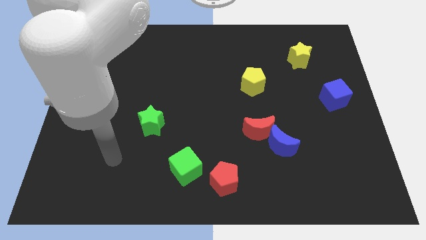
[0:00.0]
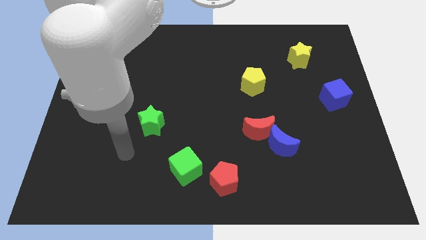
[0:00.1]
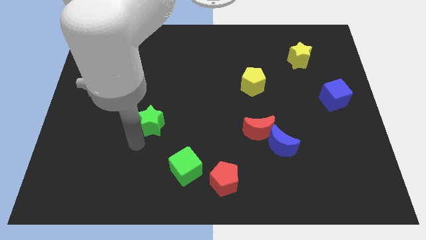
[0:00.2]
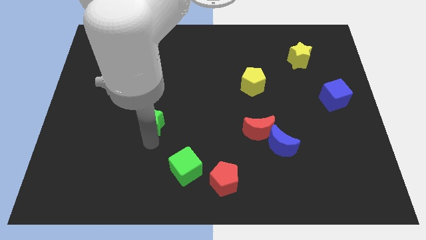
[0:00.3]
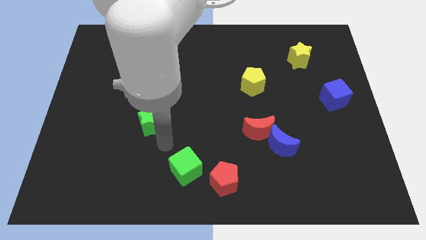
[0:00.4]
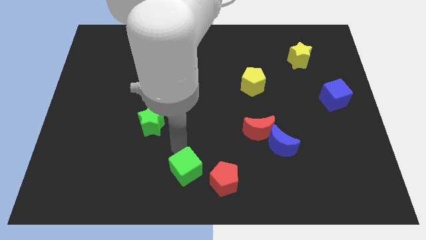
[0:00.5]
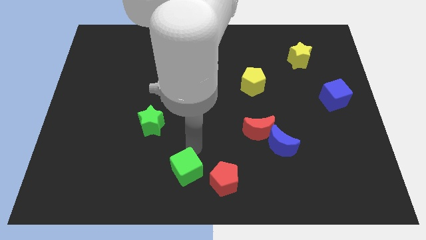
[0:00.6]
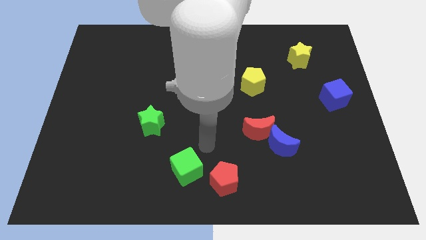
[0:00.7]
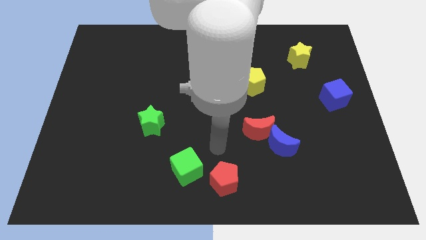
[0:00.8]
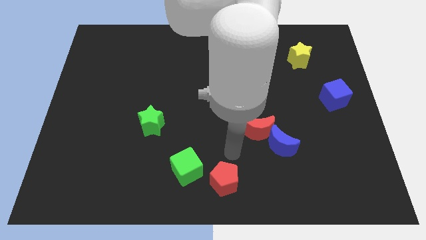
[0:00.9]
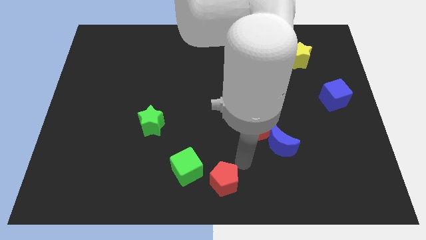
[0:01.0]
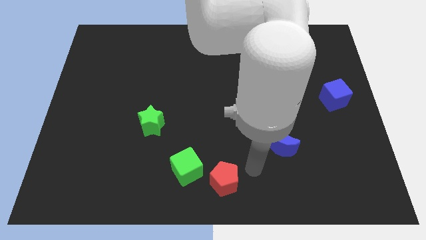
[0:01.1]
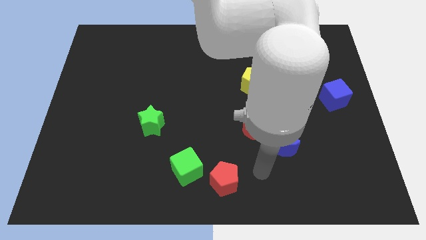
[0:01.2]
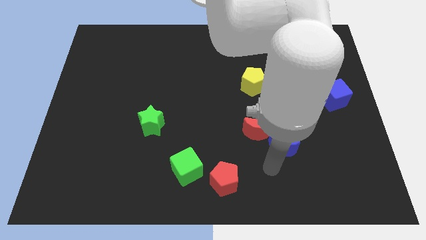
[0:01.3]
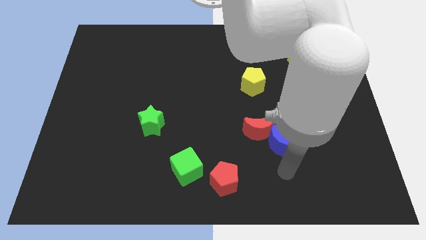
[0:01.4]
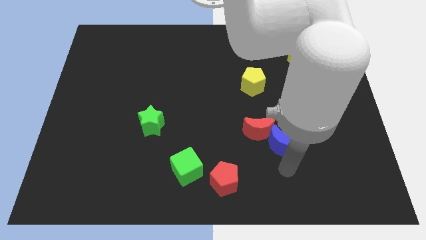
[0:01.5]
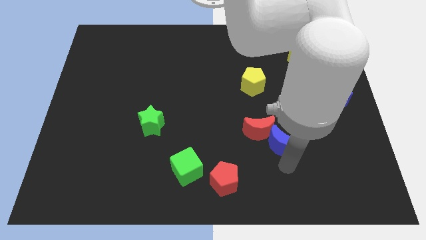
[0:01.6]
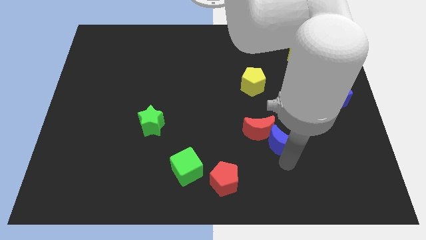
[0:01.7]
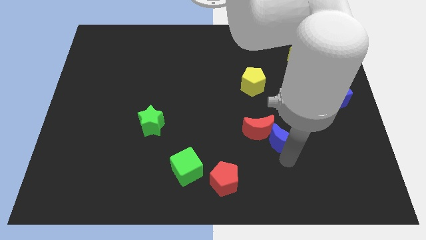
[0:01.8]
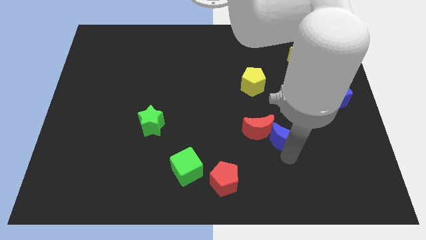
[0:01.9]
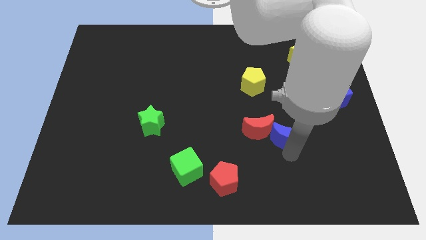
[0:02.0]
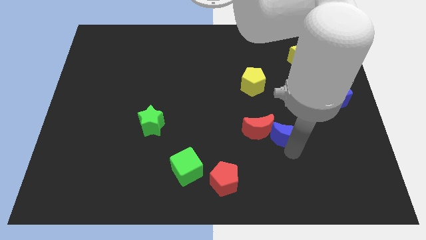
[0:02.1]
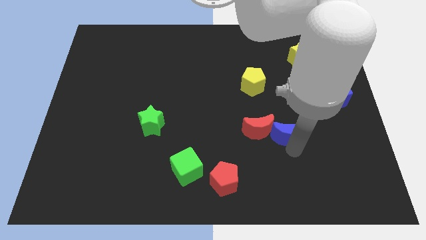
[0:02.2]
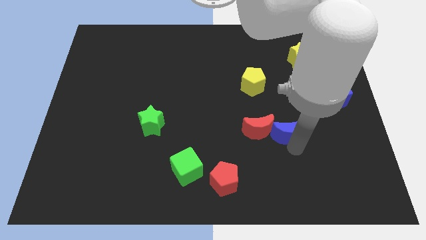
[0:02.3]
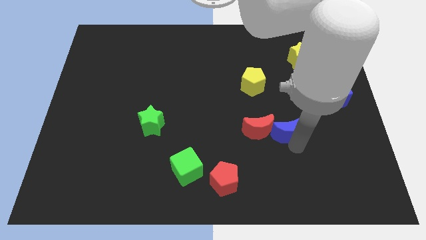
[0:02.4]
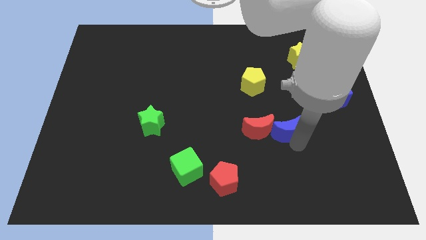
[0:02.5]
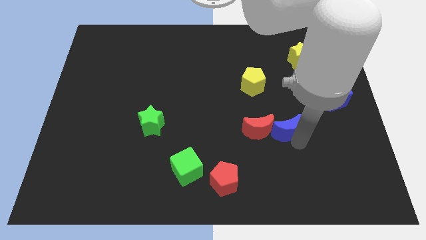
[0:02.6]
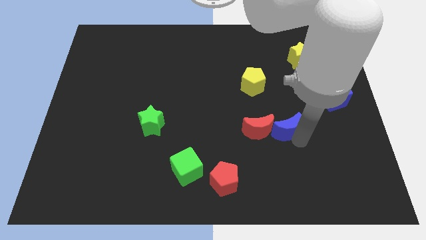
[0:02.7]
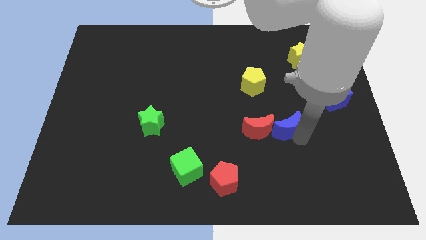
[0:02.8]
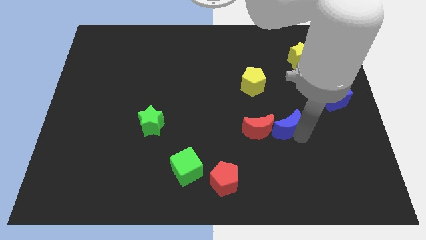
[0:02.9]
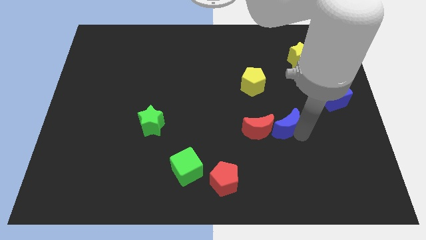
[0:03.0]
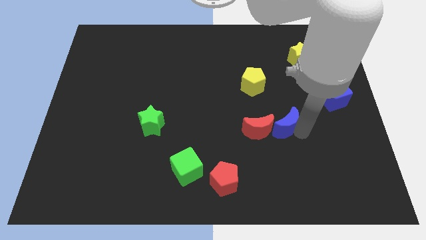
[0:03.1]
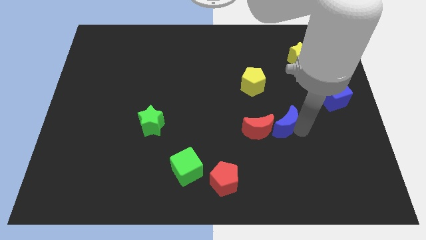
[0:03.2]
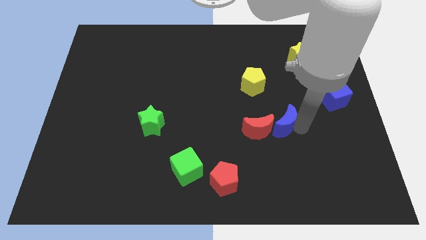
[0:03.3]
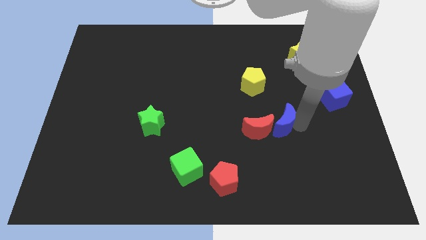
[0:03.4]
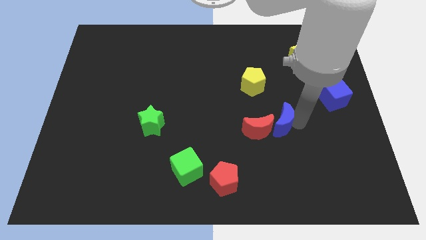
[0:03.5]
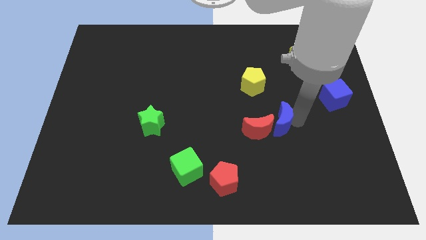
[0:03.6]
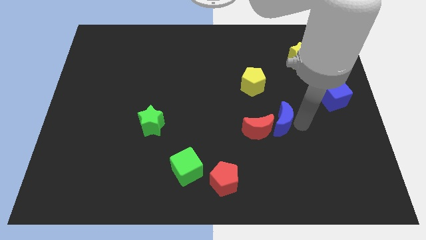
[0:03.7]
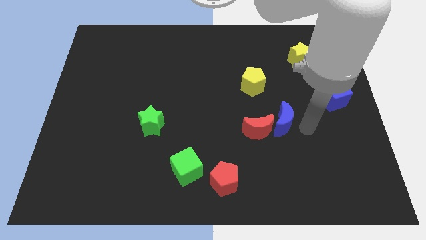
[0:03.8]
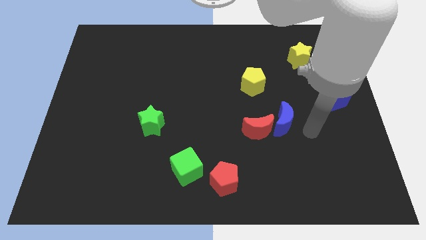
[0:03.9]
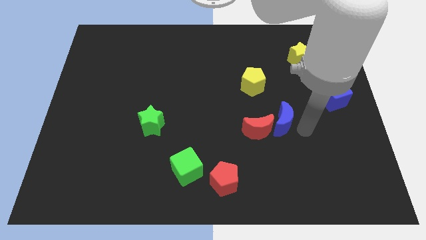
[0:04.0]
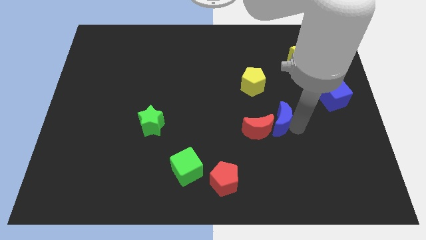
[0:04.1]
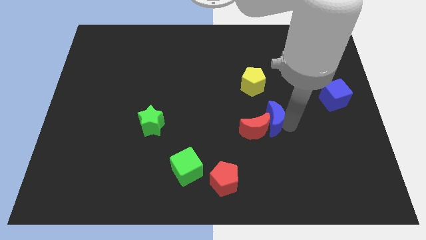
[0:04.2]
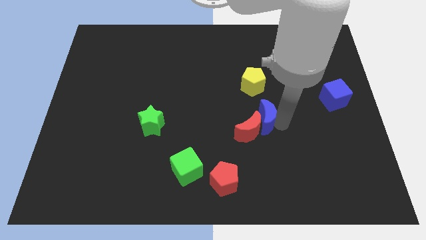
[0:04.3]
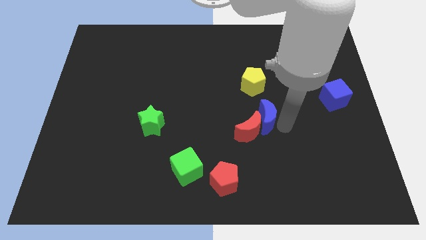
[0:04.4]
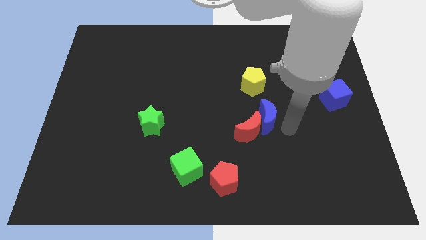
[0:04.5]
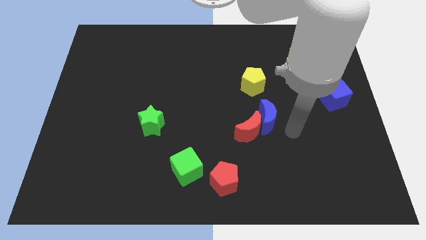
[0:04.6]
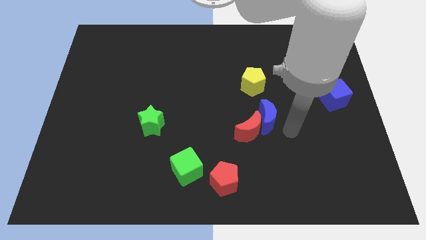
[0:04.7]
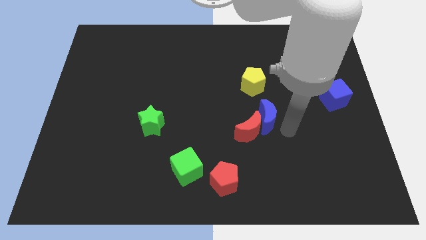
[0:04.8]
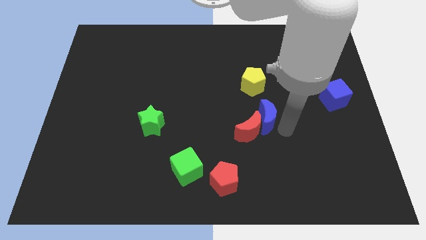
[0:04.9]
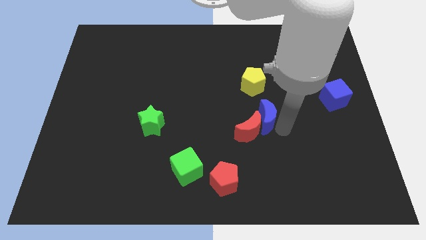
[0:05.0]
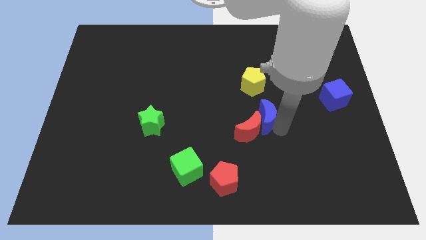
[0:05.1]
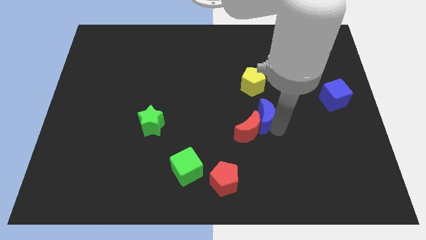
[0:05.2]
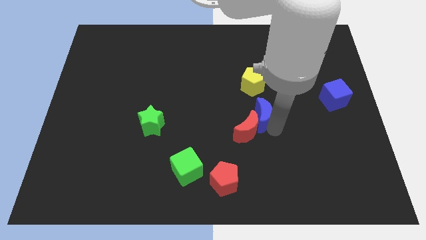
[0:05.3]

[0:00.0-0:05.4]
slide the blue moon to the middle
